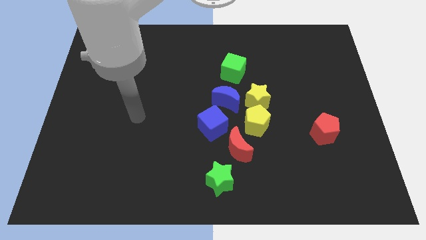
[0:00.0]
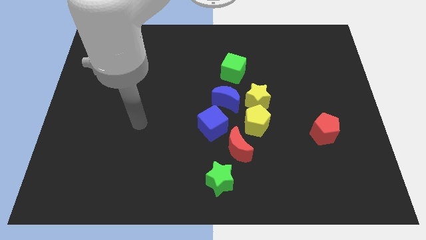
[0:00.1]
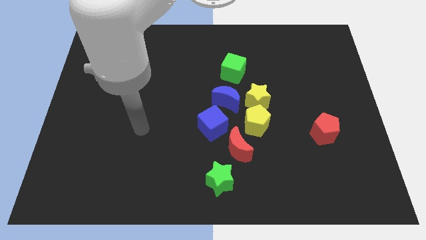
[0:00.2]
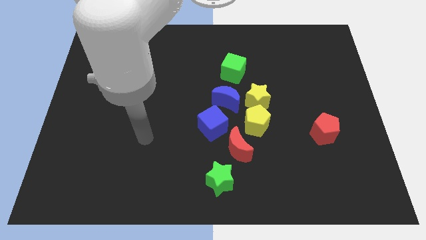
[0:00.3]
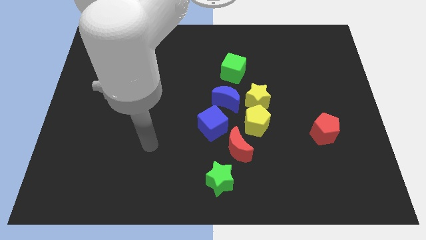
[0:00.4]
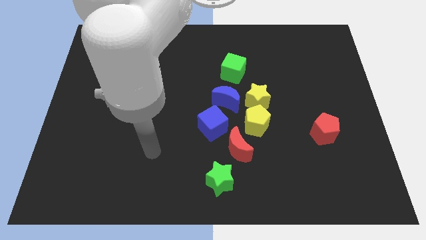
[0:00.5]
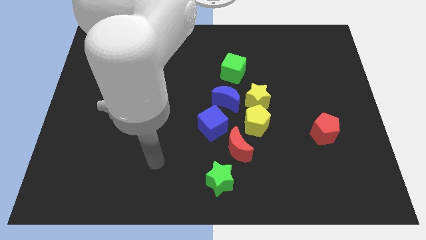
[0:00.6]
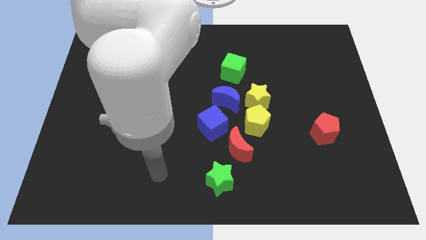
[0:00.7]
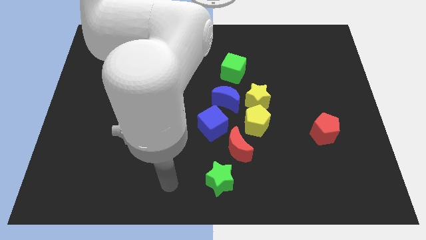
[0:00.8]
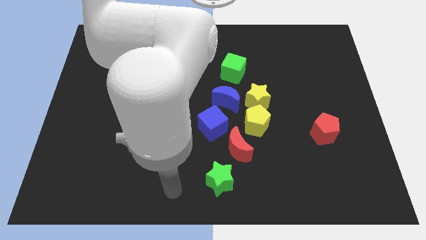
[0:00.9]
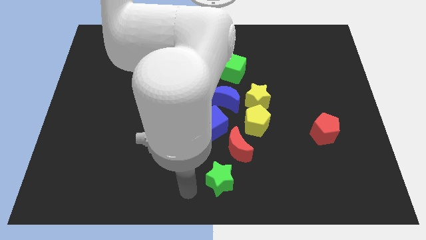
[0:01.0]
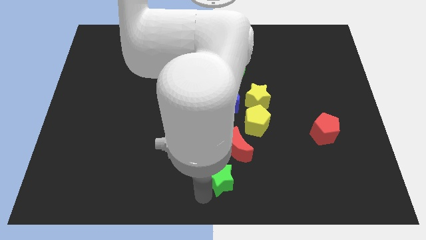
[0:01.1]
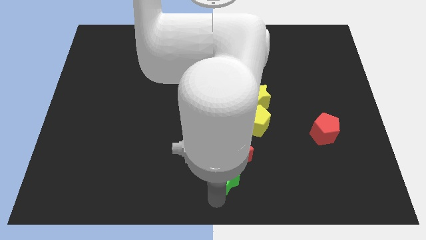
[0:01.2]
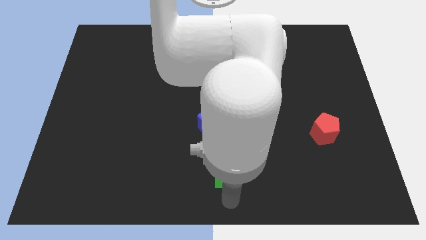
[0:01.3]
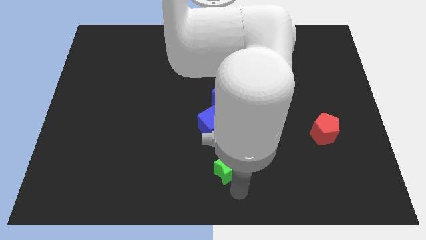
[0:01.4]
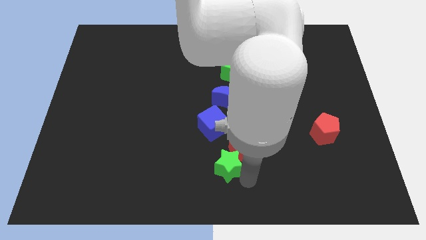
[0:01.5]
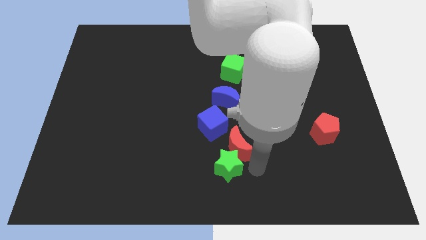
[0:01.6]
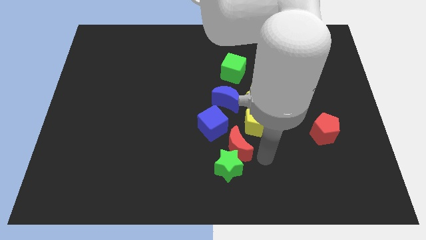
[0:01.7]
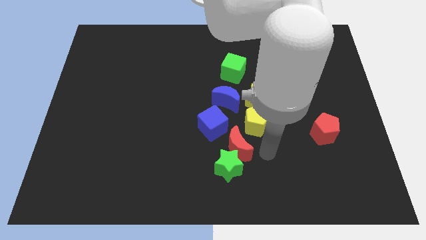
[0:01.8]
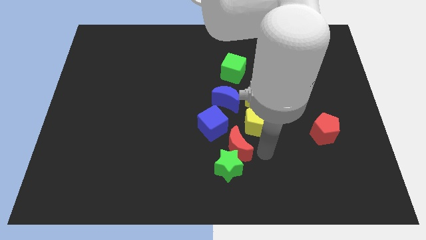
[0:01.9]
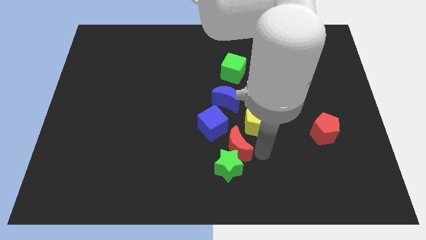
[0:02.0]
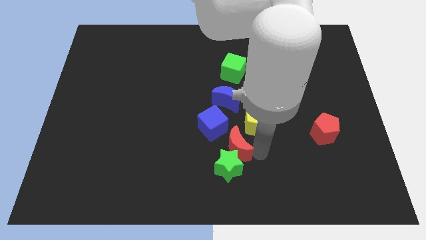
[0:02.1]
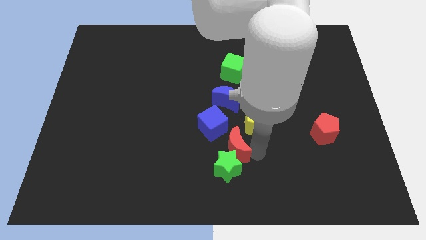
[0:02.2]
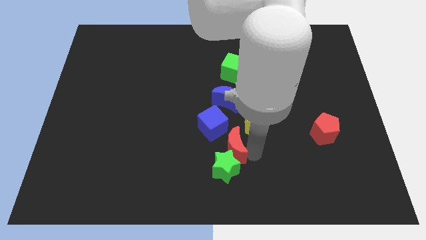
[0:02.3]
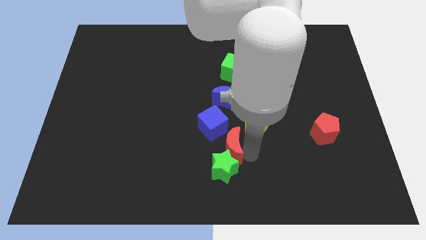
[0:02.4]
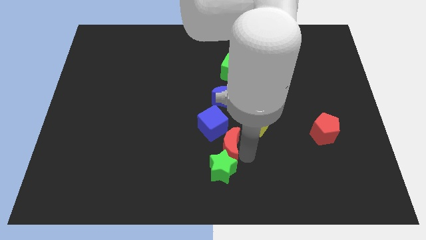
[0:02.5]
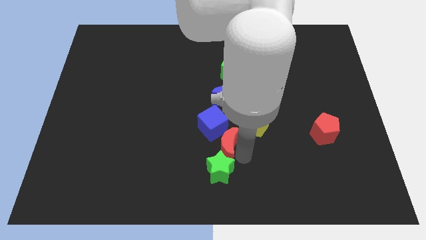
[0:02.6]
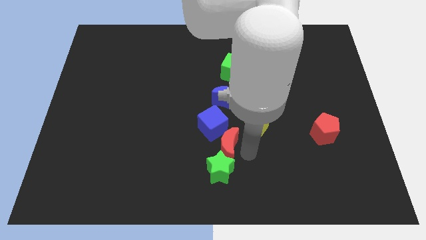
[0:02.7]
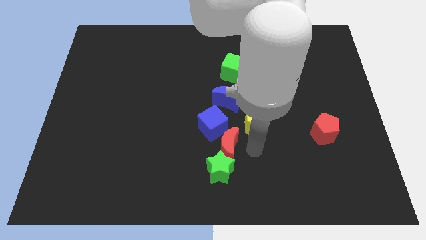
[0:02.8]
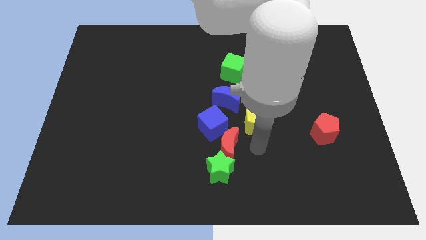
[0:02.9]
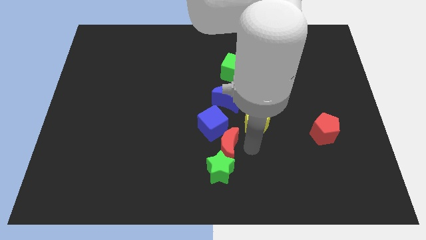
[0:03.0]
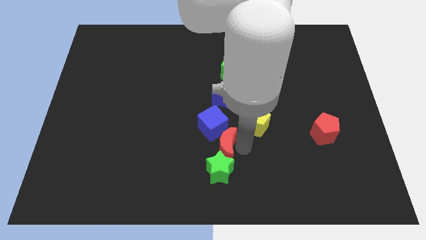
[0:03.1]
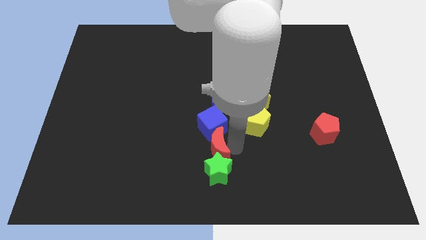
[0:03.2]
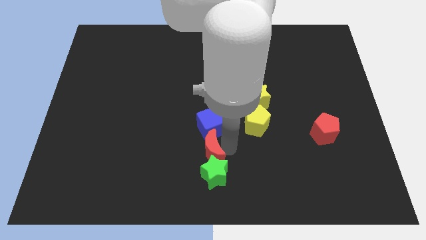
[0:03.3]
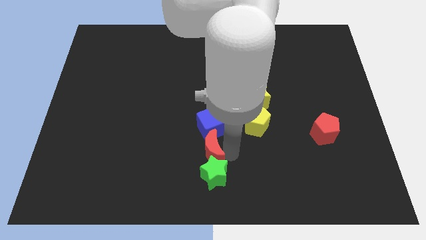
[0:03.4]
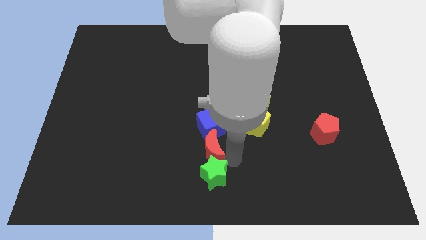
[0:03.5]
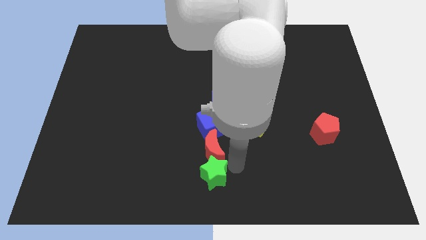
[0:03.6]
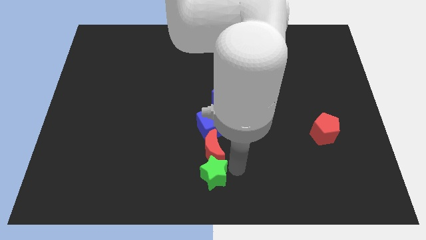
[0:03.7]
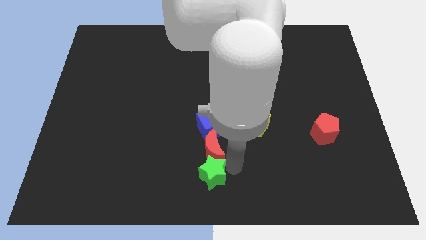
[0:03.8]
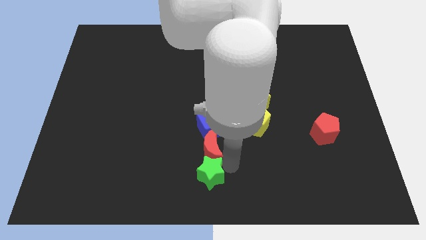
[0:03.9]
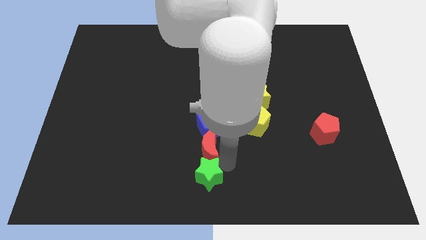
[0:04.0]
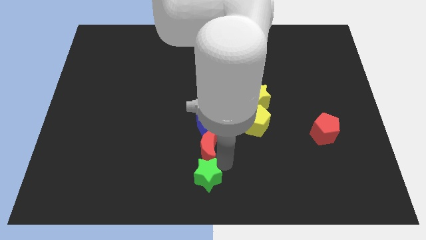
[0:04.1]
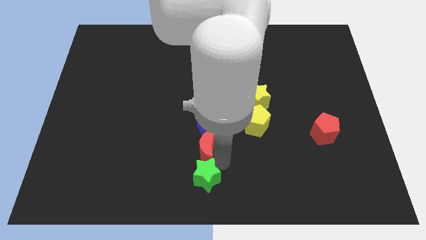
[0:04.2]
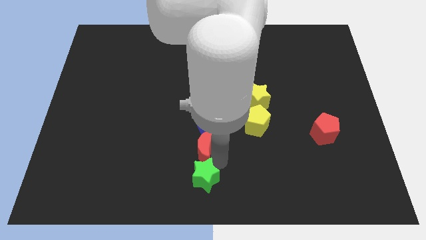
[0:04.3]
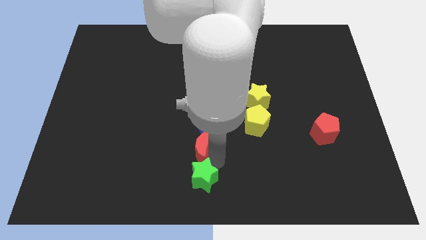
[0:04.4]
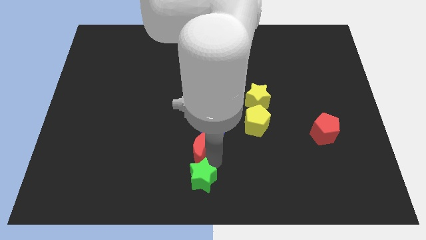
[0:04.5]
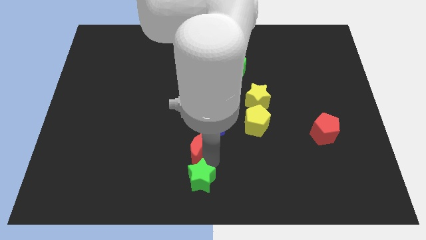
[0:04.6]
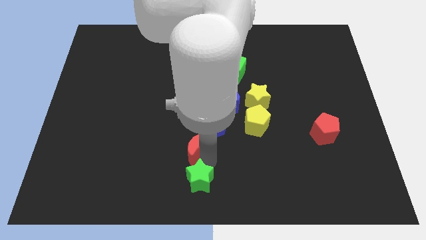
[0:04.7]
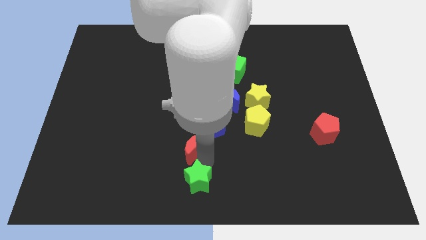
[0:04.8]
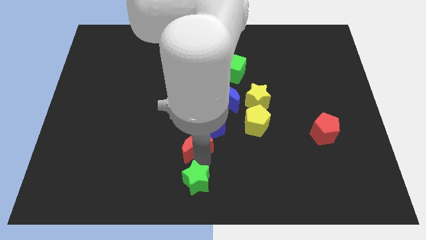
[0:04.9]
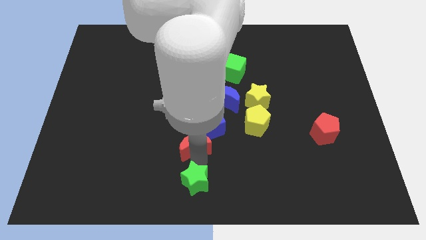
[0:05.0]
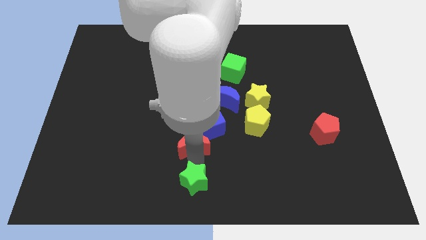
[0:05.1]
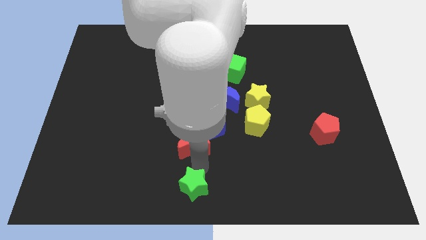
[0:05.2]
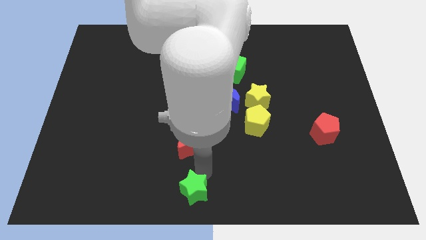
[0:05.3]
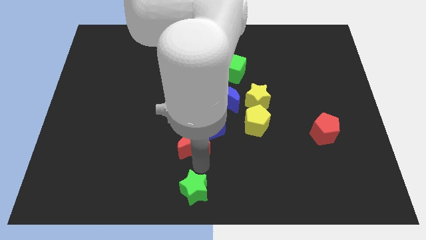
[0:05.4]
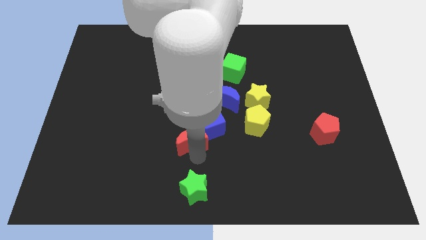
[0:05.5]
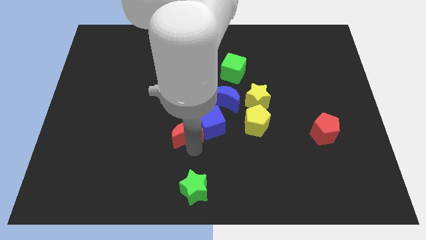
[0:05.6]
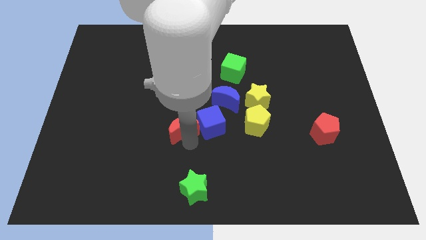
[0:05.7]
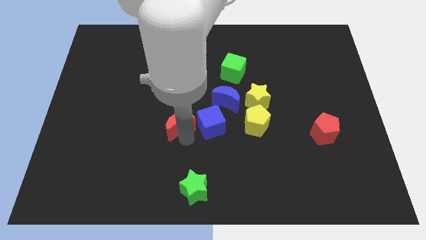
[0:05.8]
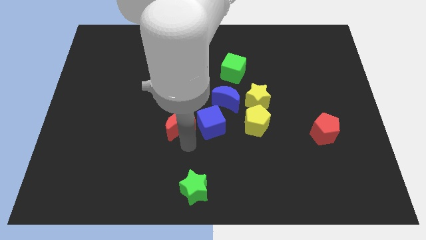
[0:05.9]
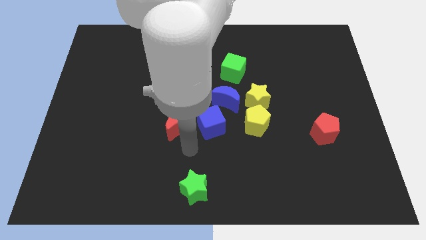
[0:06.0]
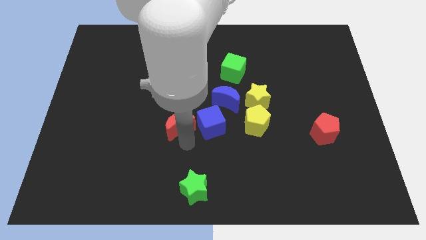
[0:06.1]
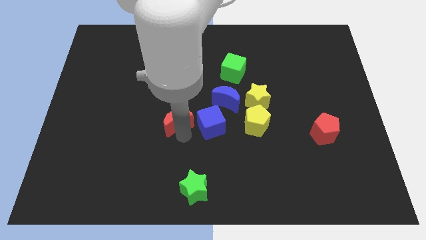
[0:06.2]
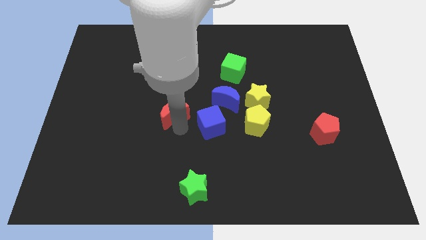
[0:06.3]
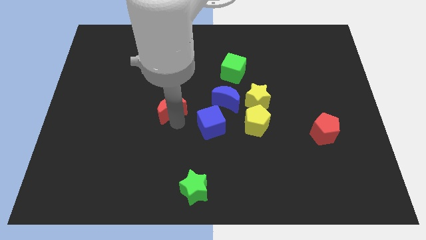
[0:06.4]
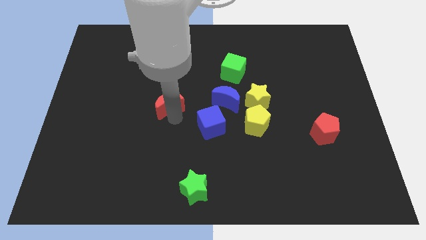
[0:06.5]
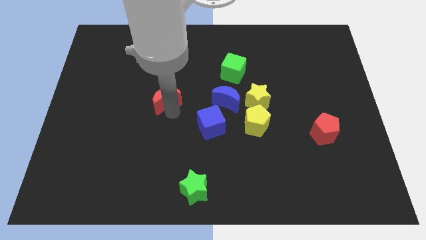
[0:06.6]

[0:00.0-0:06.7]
slide the red moon upwards and to the left

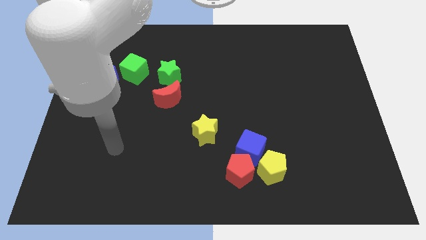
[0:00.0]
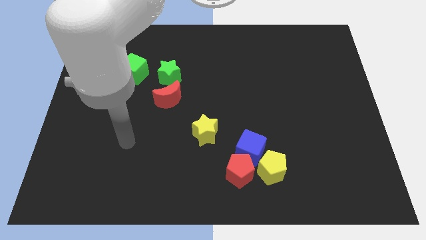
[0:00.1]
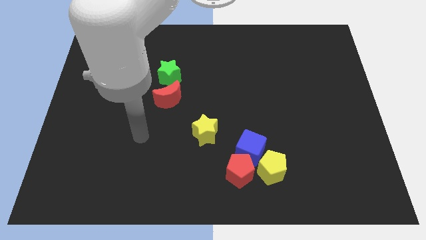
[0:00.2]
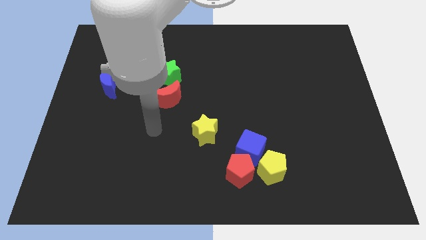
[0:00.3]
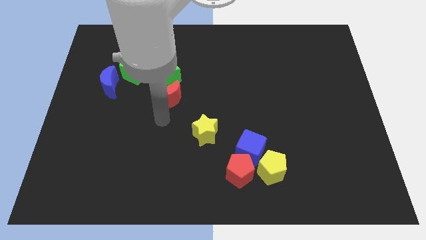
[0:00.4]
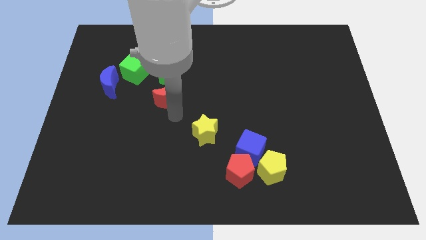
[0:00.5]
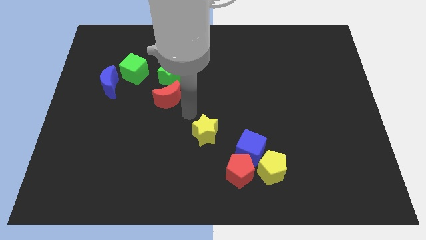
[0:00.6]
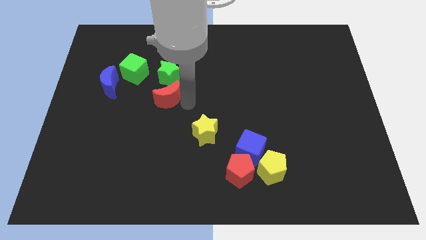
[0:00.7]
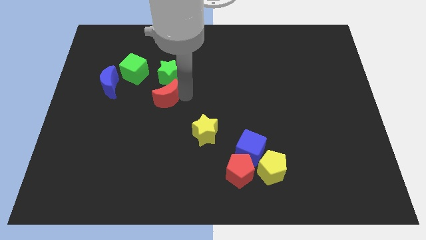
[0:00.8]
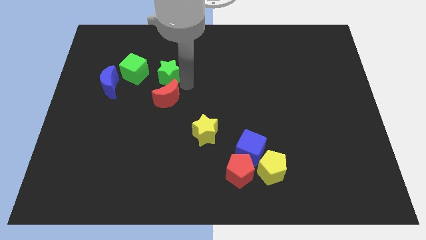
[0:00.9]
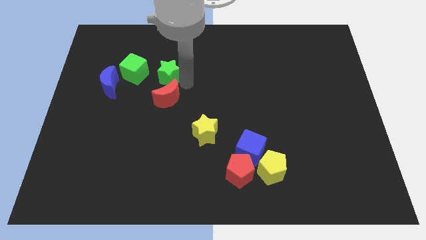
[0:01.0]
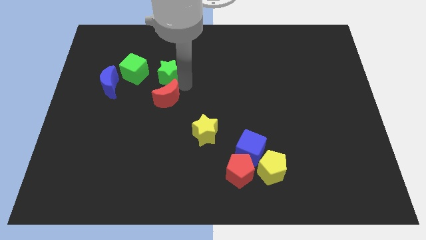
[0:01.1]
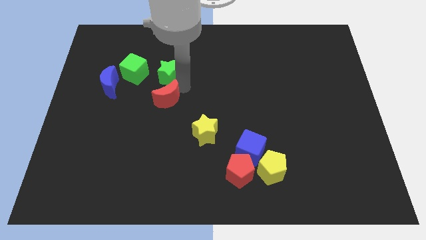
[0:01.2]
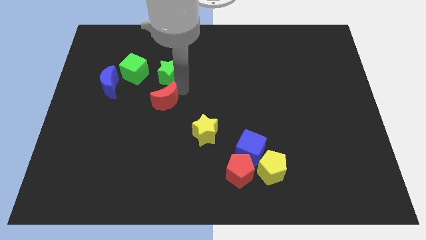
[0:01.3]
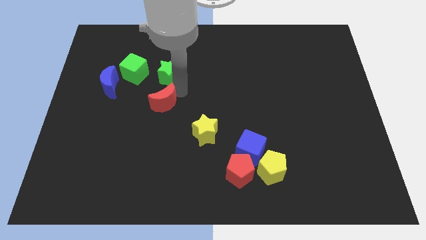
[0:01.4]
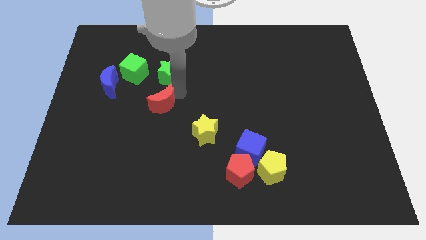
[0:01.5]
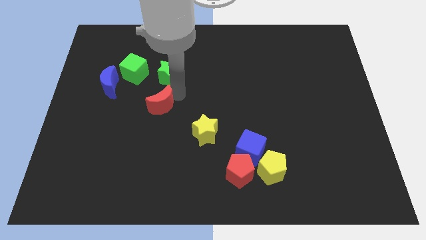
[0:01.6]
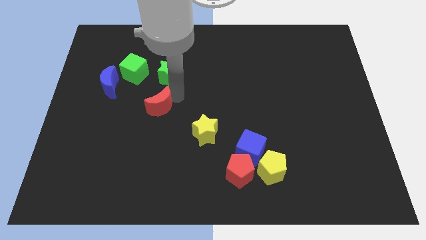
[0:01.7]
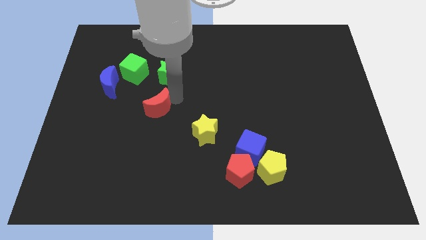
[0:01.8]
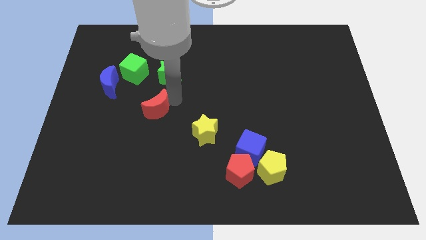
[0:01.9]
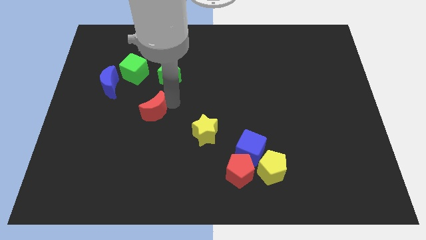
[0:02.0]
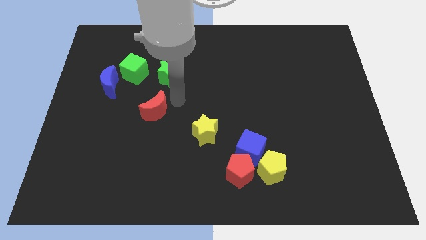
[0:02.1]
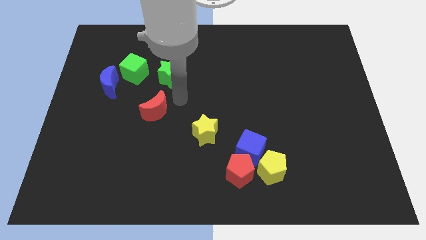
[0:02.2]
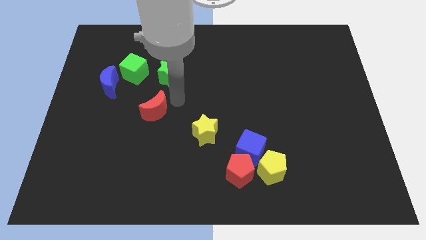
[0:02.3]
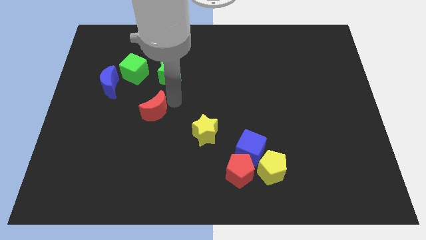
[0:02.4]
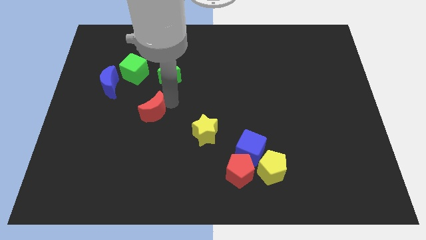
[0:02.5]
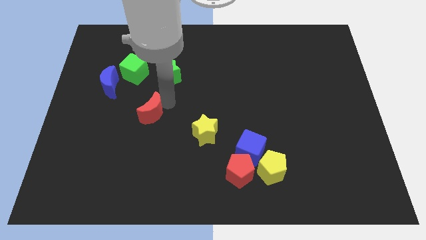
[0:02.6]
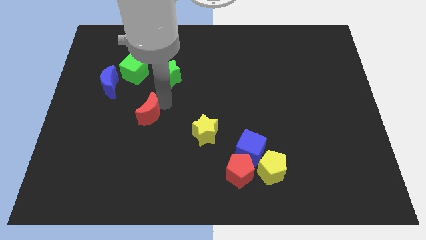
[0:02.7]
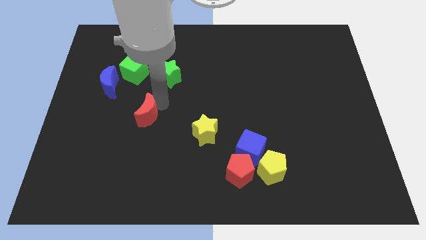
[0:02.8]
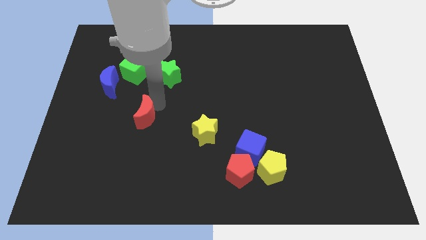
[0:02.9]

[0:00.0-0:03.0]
move the red moon down and to the left slightly
